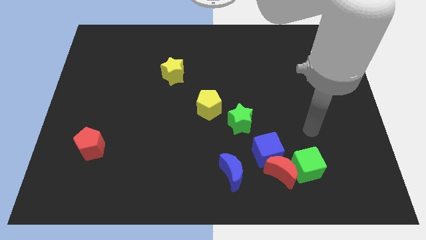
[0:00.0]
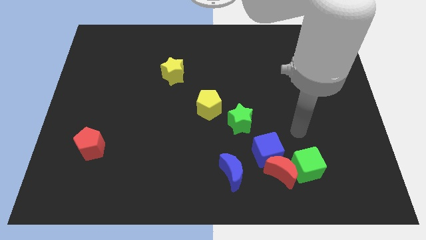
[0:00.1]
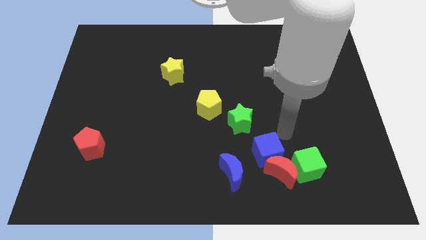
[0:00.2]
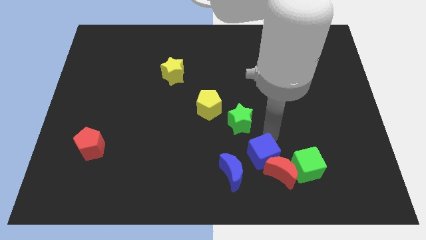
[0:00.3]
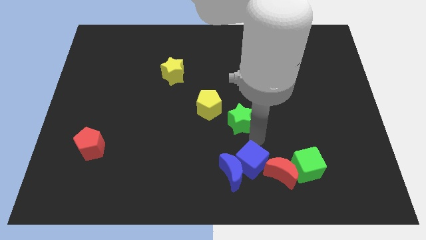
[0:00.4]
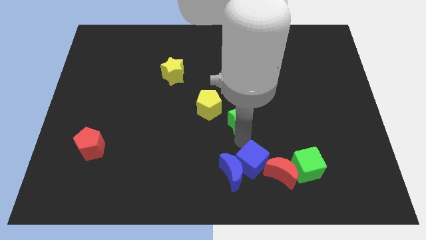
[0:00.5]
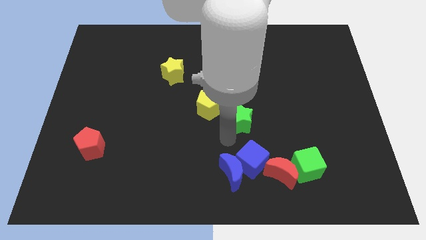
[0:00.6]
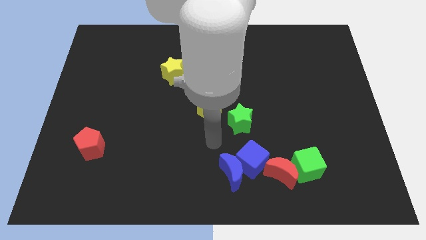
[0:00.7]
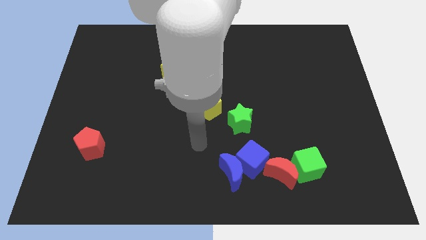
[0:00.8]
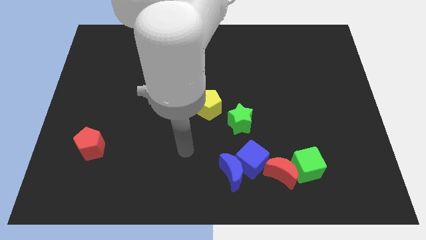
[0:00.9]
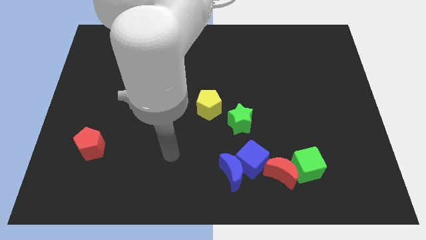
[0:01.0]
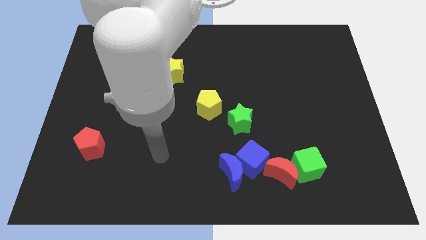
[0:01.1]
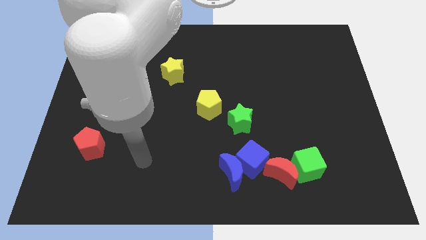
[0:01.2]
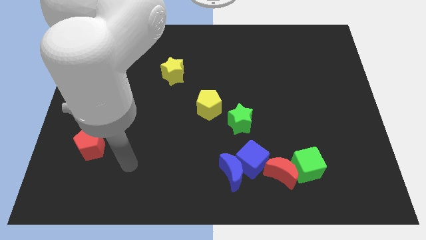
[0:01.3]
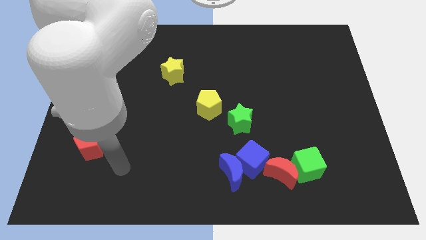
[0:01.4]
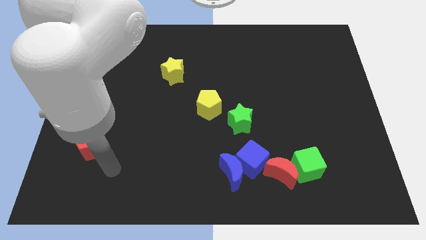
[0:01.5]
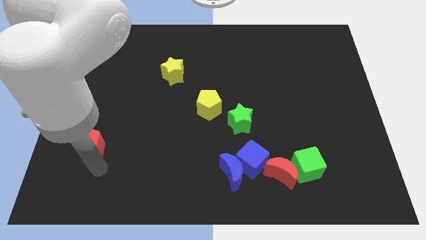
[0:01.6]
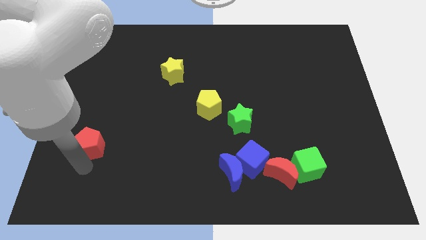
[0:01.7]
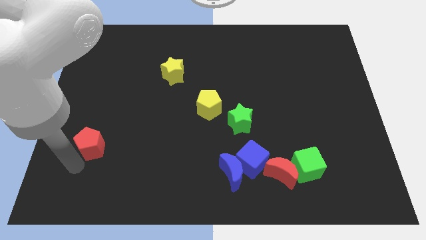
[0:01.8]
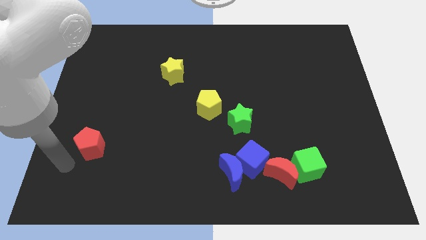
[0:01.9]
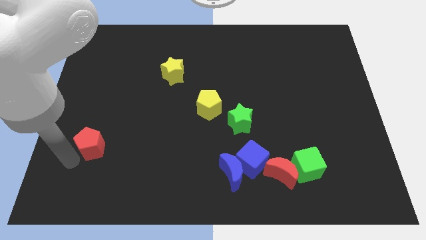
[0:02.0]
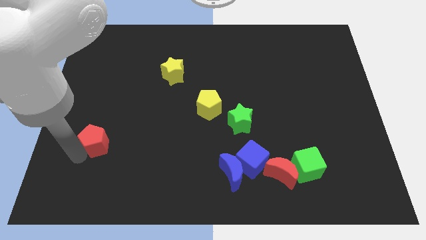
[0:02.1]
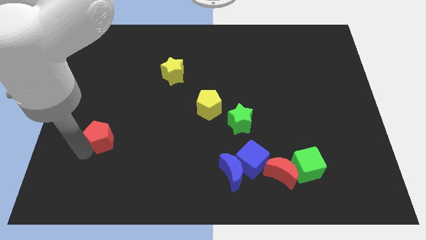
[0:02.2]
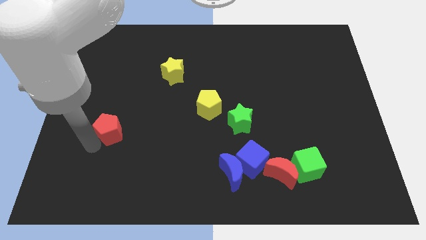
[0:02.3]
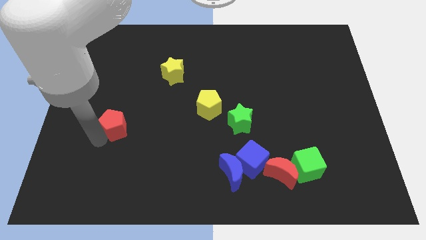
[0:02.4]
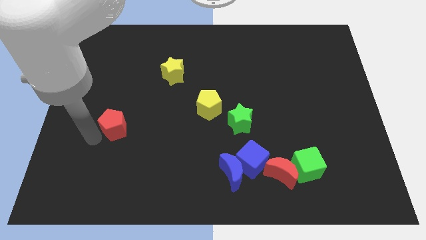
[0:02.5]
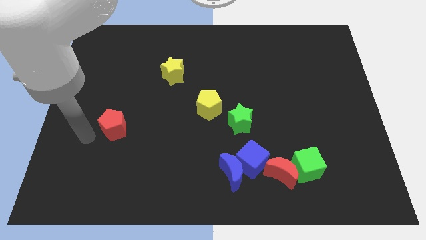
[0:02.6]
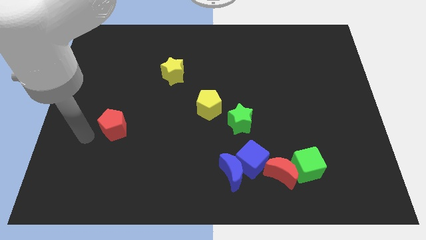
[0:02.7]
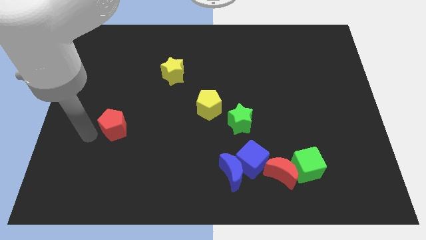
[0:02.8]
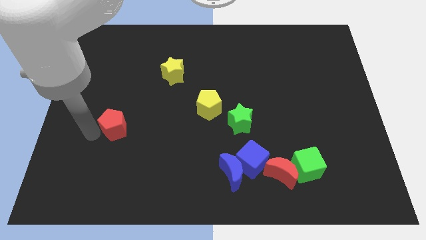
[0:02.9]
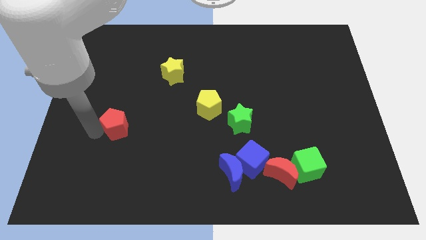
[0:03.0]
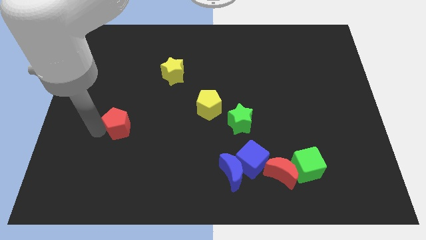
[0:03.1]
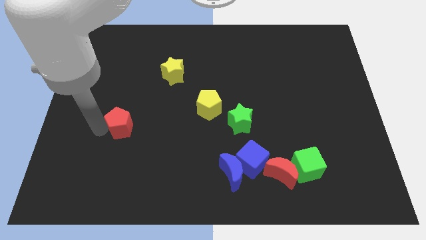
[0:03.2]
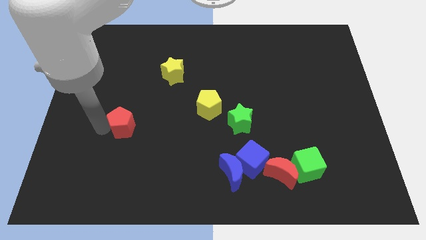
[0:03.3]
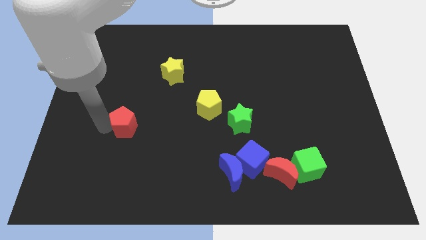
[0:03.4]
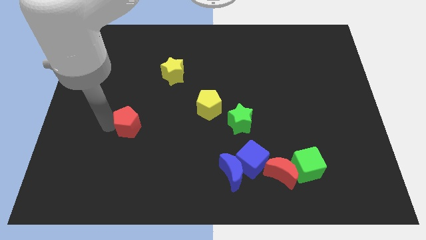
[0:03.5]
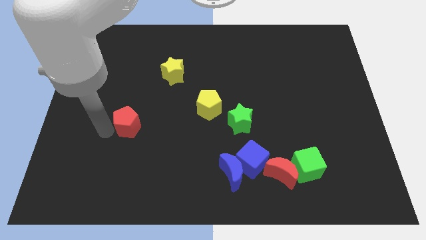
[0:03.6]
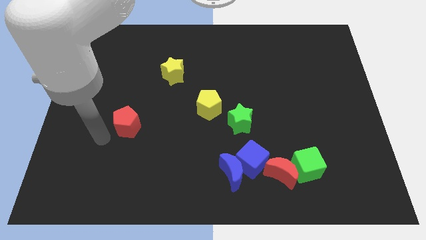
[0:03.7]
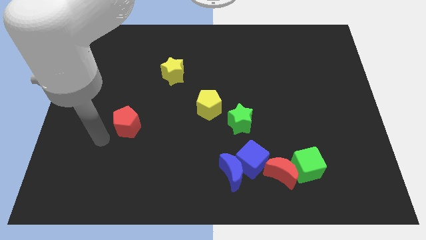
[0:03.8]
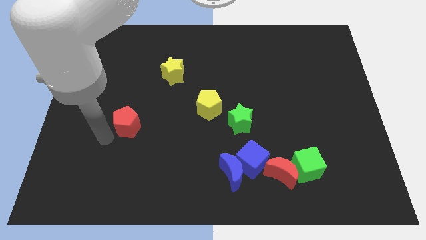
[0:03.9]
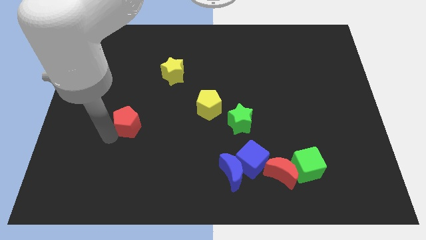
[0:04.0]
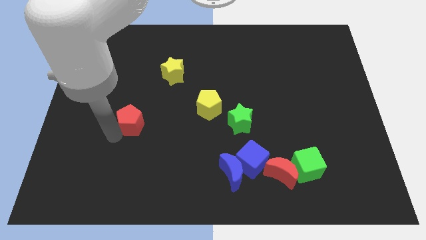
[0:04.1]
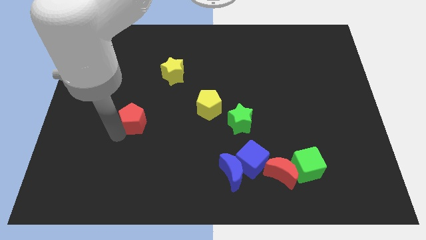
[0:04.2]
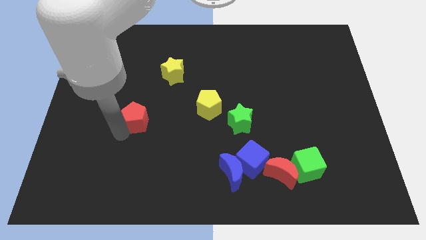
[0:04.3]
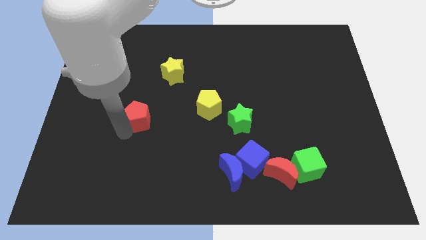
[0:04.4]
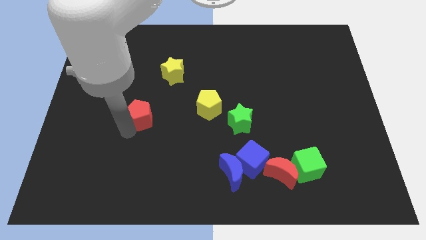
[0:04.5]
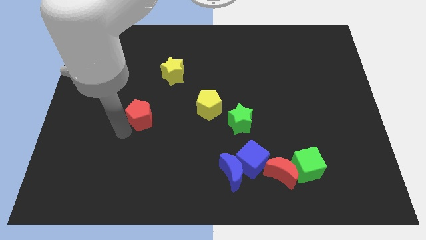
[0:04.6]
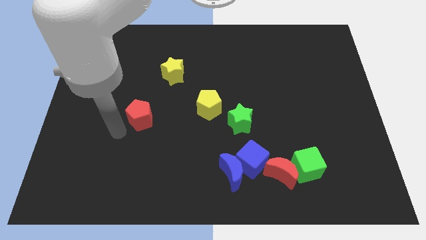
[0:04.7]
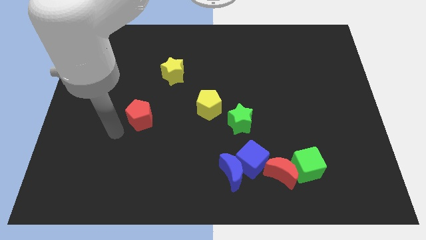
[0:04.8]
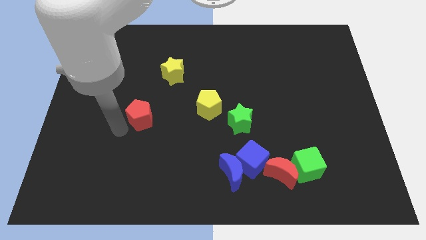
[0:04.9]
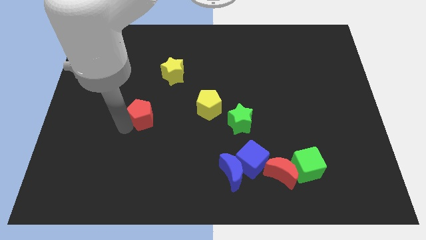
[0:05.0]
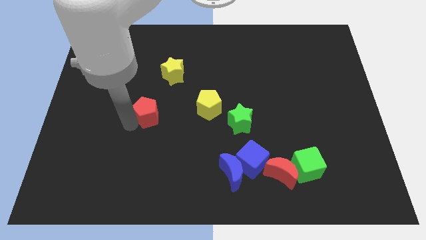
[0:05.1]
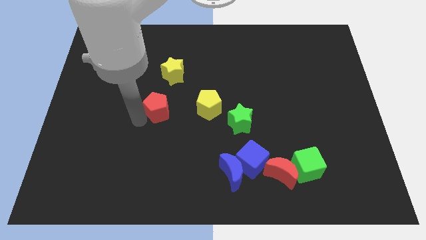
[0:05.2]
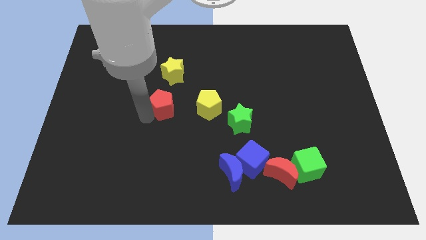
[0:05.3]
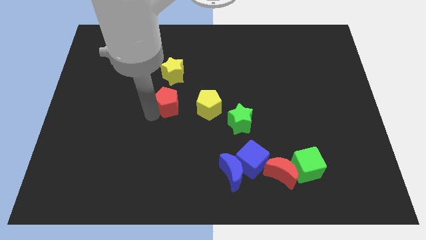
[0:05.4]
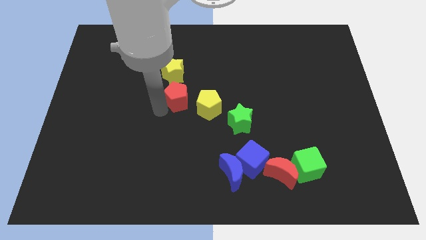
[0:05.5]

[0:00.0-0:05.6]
move the red pentagon to the bottom right side of the yellow star

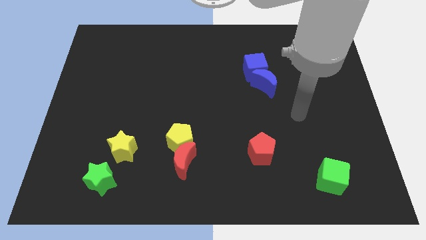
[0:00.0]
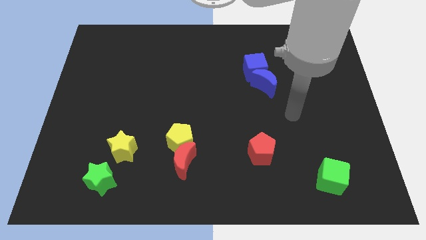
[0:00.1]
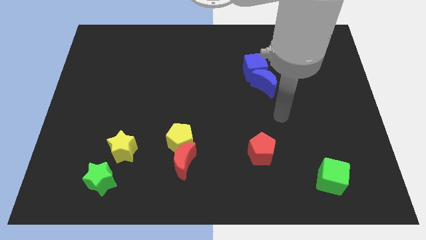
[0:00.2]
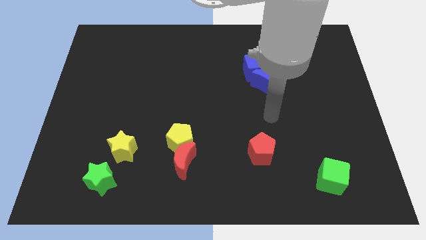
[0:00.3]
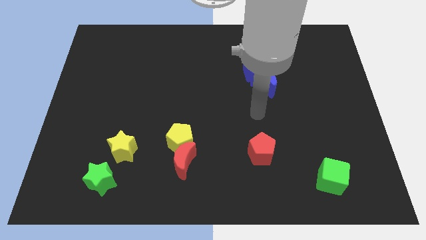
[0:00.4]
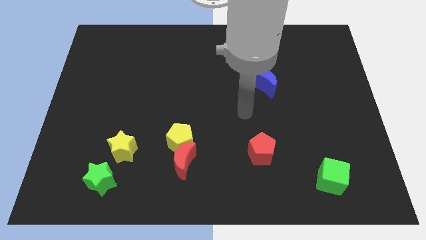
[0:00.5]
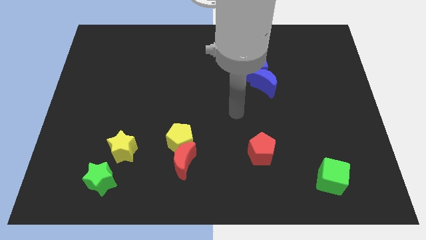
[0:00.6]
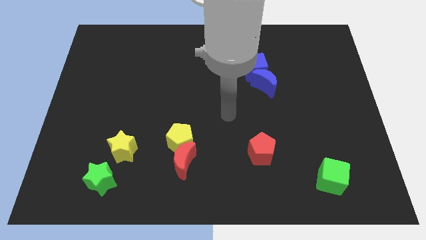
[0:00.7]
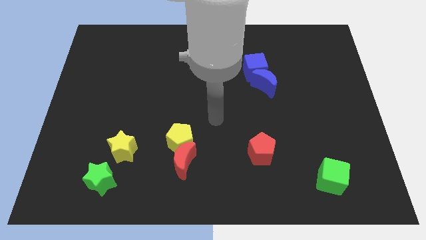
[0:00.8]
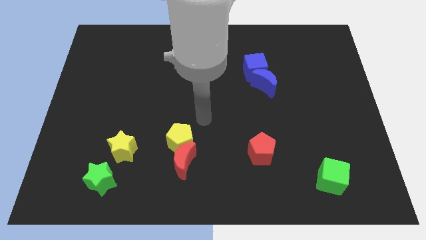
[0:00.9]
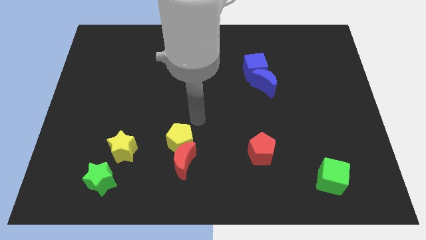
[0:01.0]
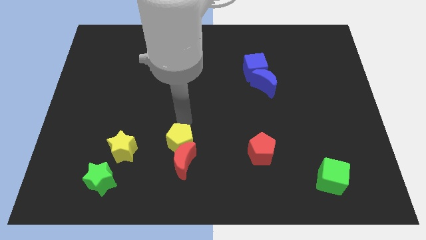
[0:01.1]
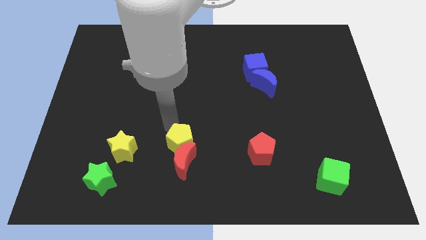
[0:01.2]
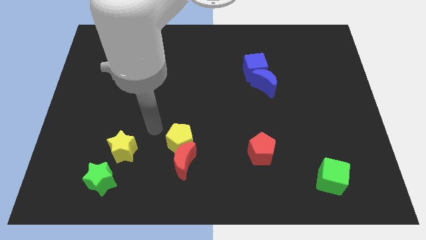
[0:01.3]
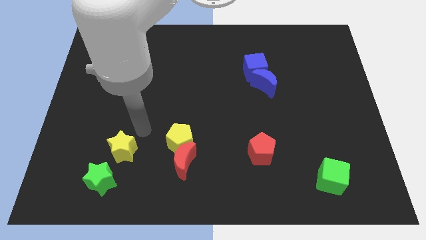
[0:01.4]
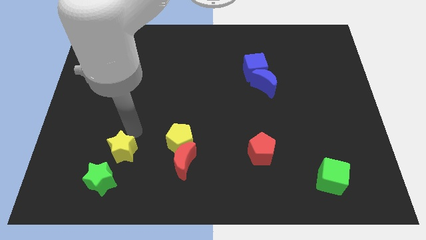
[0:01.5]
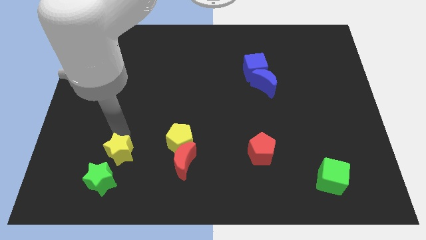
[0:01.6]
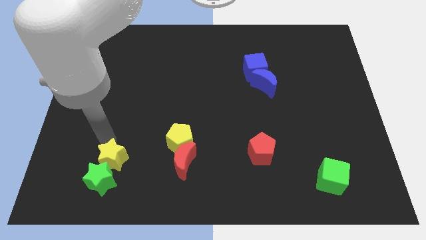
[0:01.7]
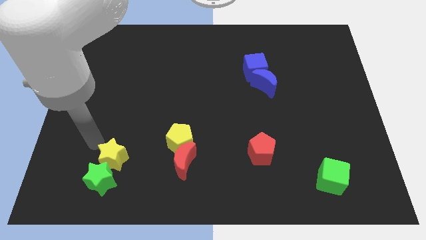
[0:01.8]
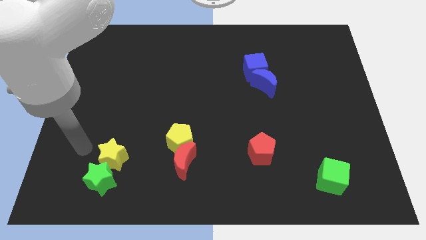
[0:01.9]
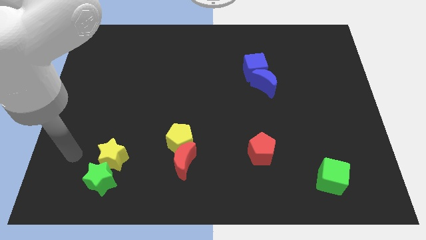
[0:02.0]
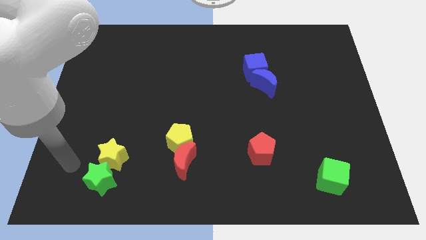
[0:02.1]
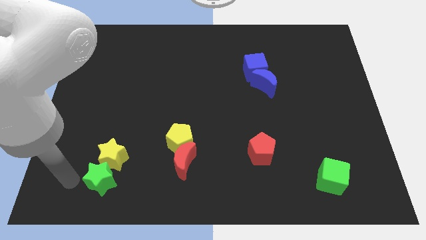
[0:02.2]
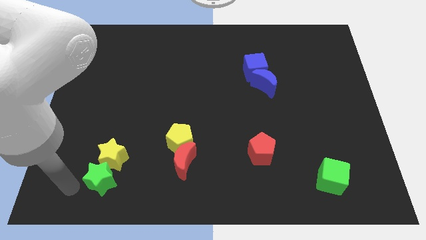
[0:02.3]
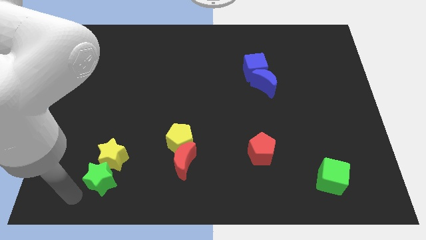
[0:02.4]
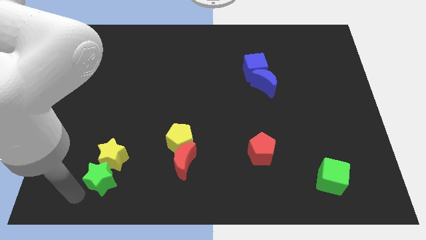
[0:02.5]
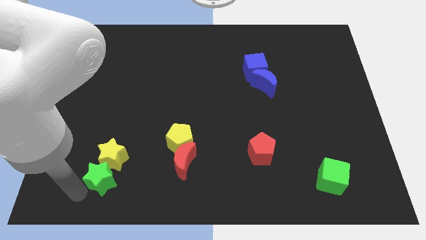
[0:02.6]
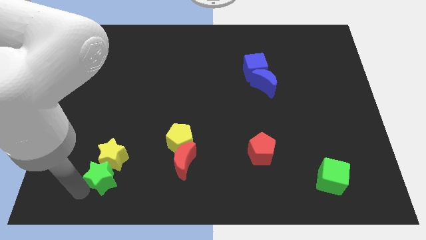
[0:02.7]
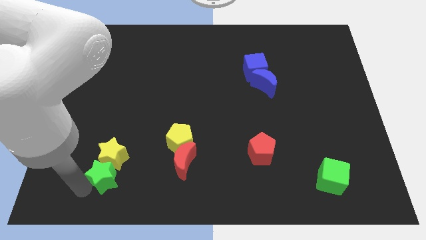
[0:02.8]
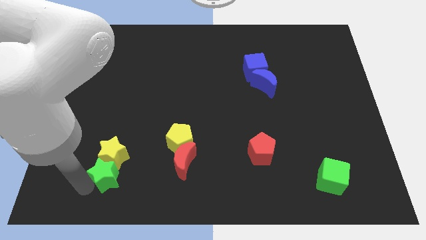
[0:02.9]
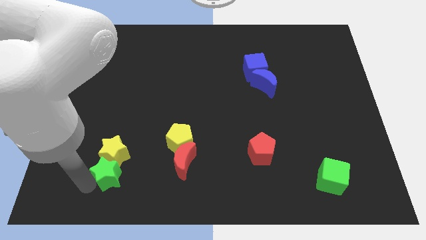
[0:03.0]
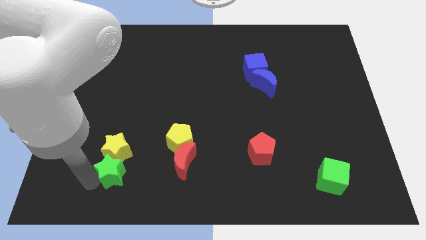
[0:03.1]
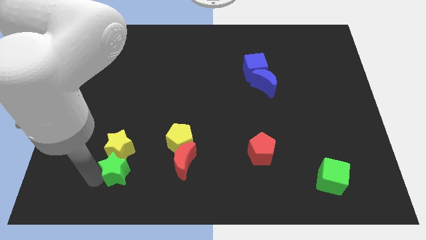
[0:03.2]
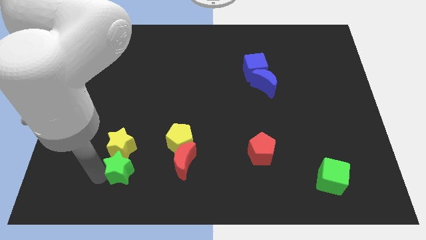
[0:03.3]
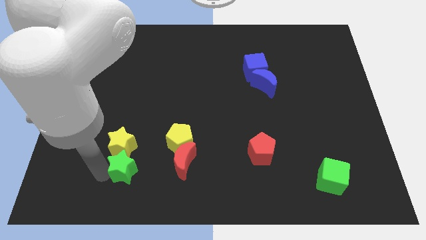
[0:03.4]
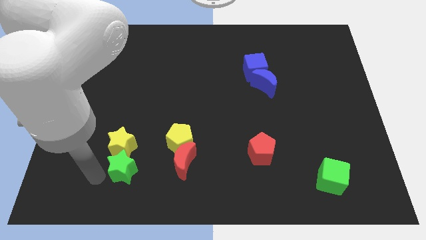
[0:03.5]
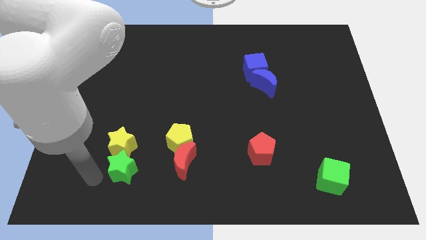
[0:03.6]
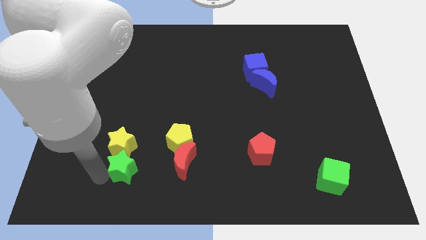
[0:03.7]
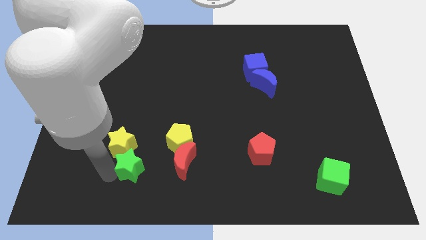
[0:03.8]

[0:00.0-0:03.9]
slide the green star to the bottom left side of the yellow pentagon
